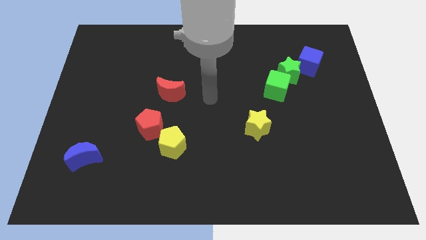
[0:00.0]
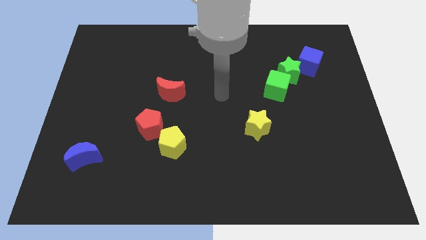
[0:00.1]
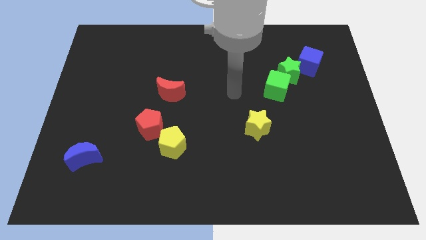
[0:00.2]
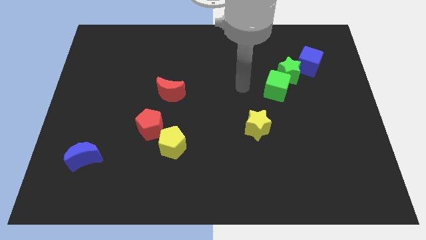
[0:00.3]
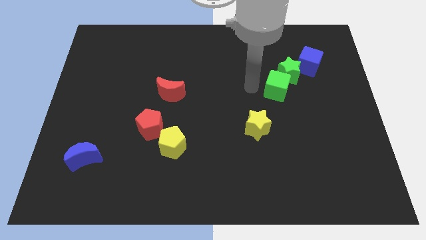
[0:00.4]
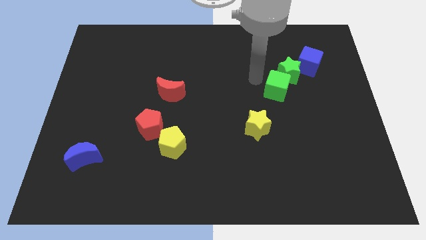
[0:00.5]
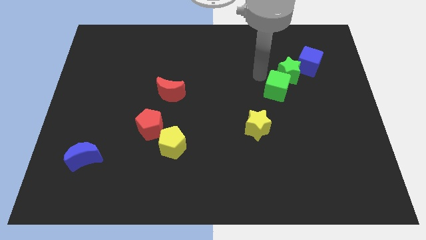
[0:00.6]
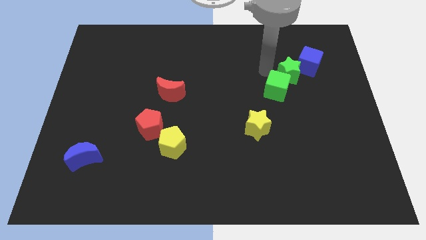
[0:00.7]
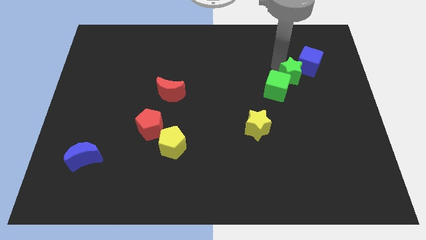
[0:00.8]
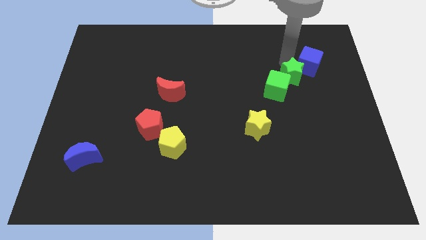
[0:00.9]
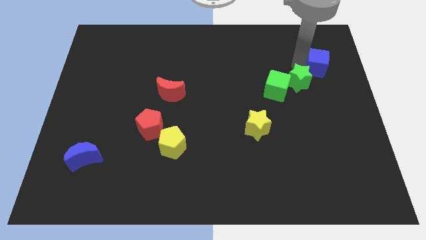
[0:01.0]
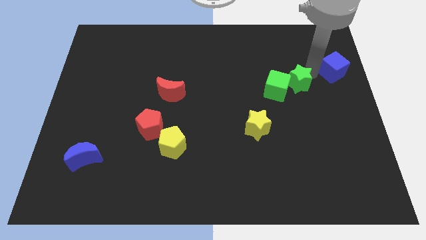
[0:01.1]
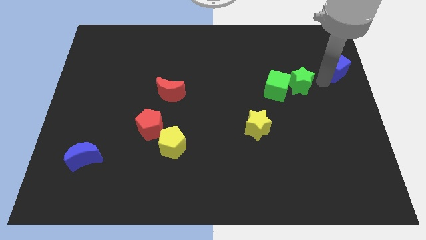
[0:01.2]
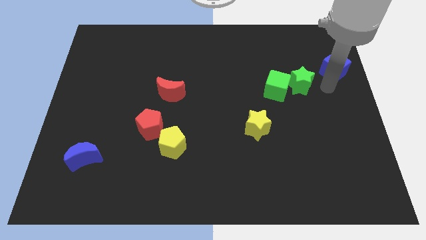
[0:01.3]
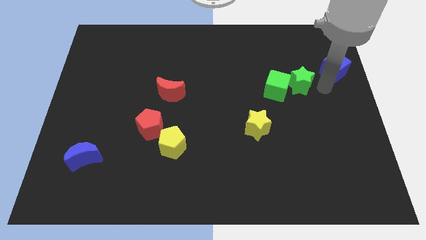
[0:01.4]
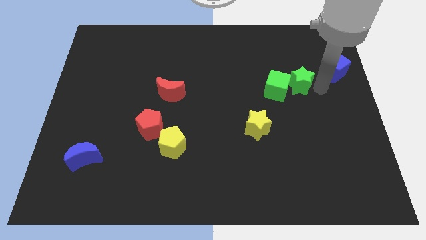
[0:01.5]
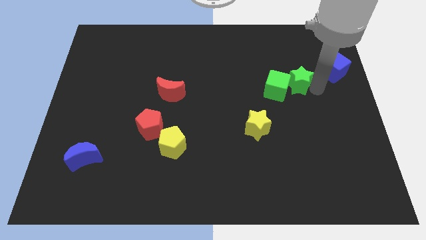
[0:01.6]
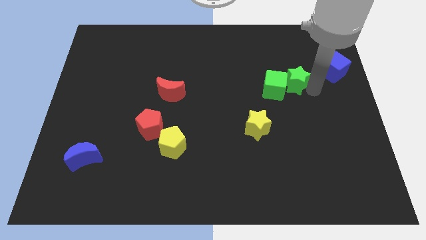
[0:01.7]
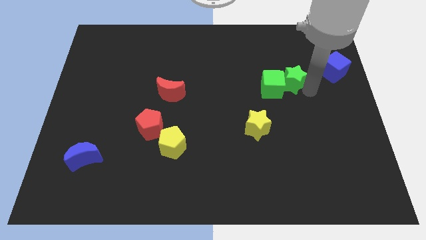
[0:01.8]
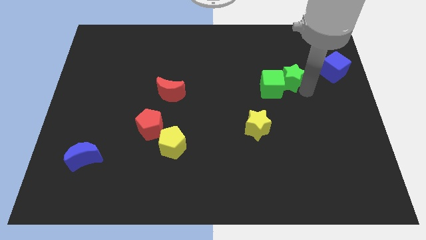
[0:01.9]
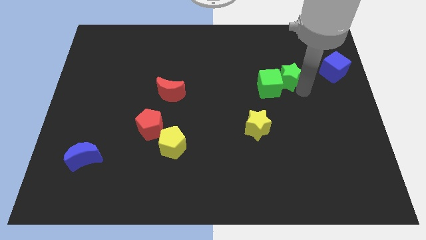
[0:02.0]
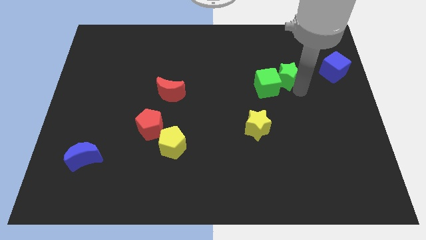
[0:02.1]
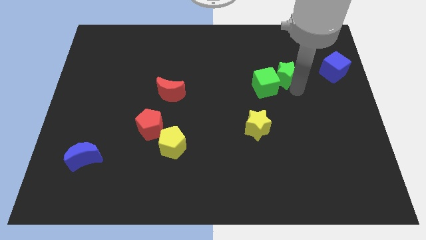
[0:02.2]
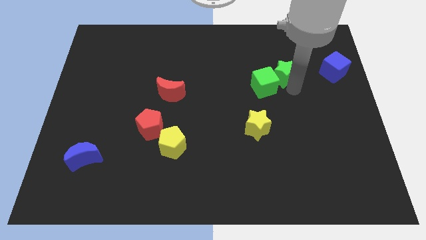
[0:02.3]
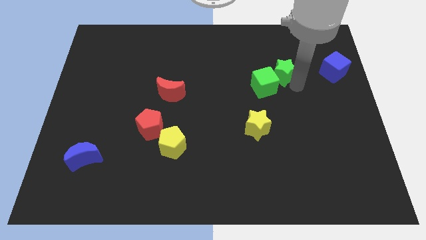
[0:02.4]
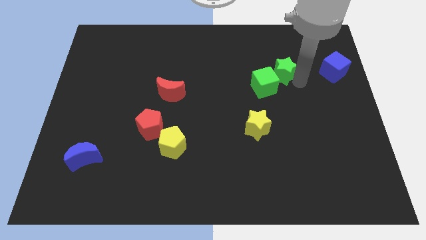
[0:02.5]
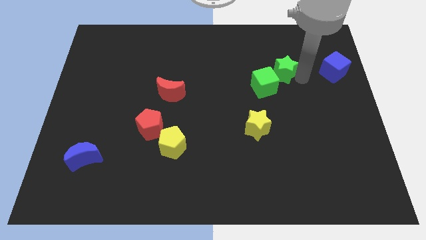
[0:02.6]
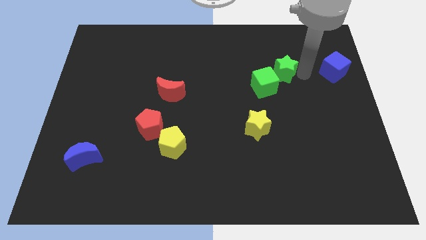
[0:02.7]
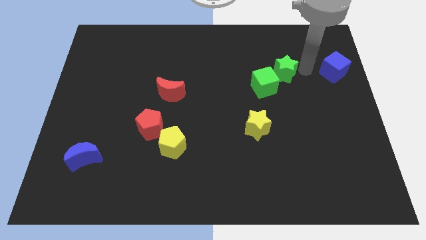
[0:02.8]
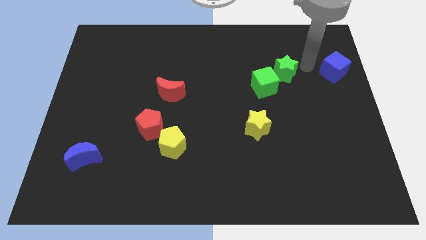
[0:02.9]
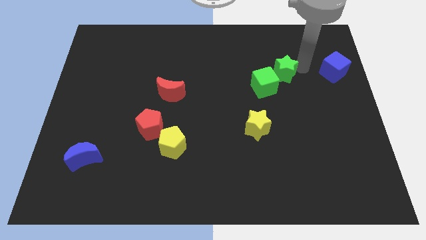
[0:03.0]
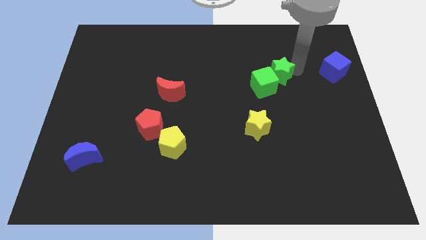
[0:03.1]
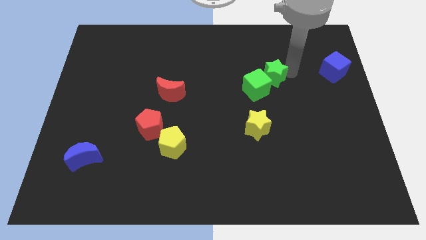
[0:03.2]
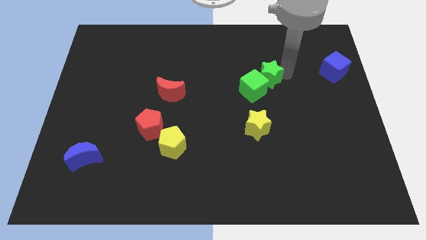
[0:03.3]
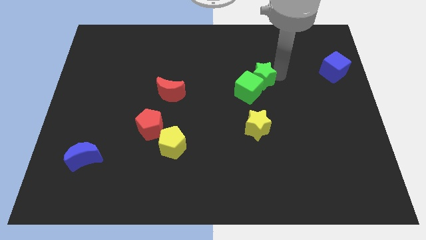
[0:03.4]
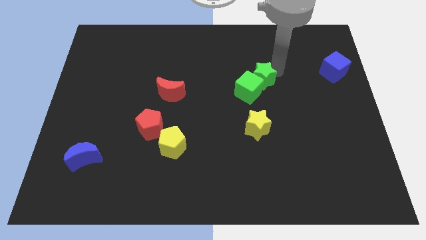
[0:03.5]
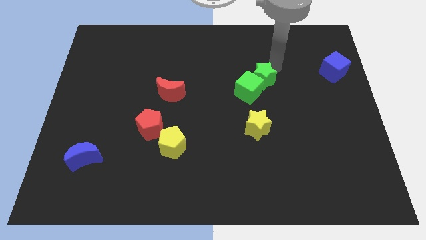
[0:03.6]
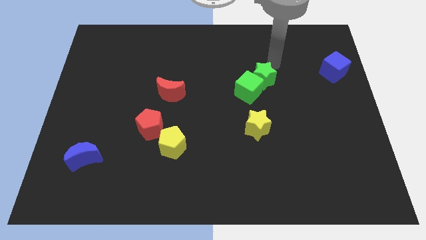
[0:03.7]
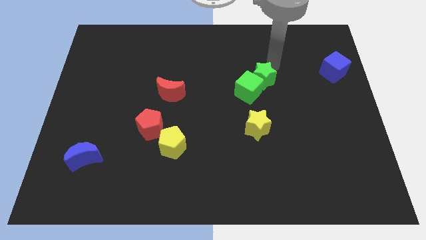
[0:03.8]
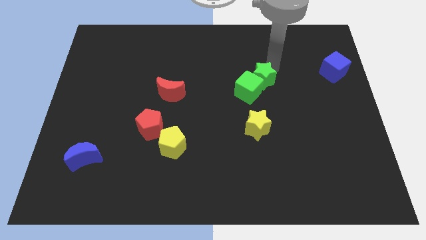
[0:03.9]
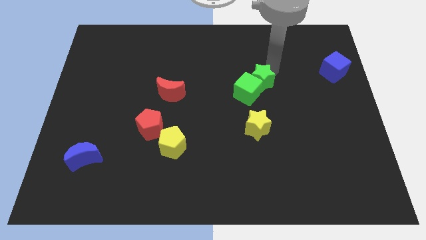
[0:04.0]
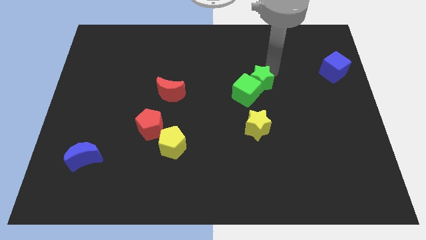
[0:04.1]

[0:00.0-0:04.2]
push the green star downwards and to the left a little

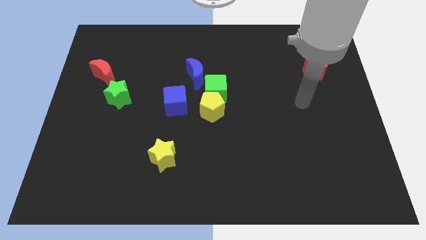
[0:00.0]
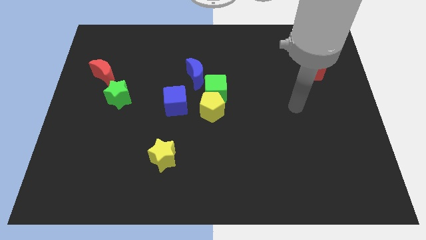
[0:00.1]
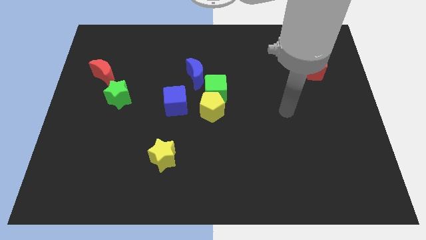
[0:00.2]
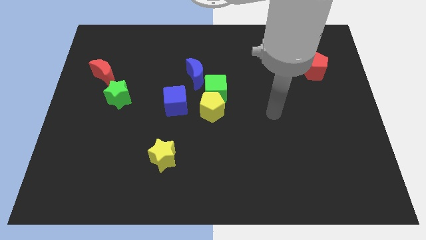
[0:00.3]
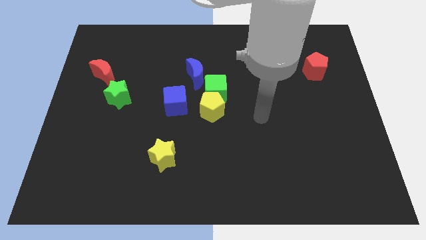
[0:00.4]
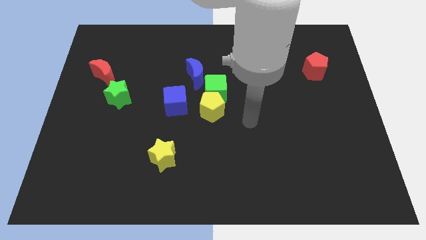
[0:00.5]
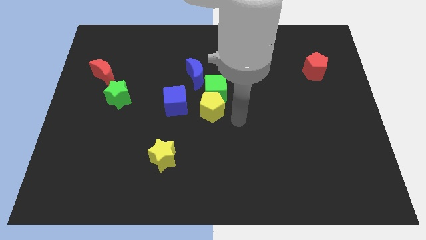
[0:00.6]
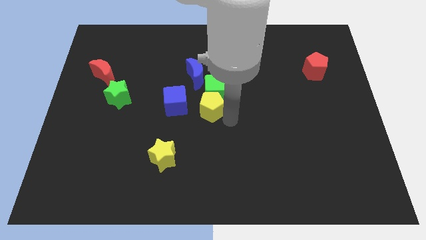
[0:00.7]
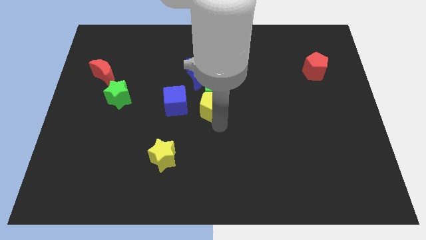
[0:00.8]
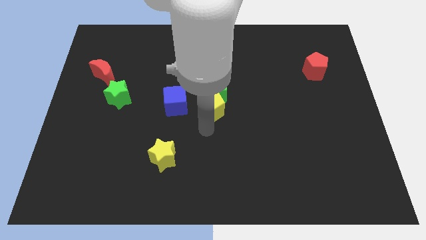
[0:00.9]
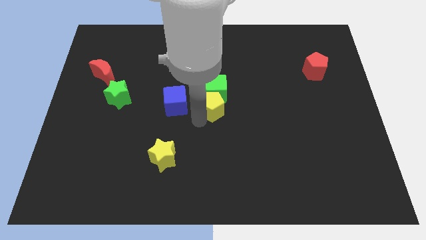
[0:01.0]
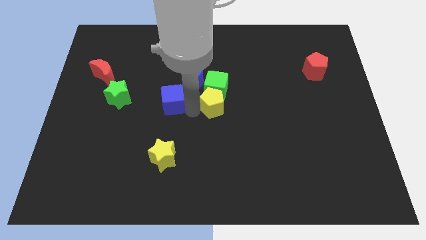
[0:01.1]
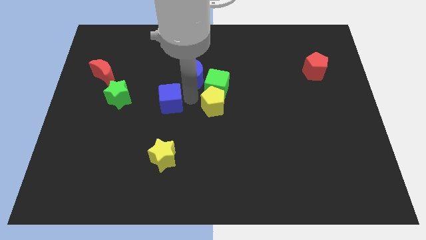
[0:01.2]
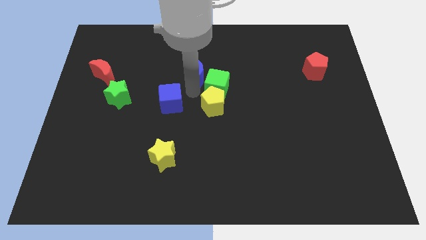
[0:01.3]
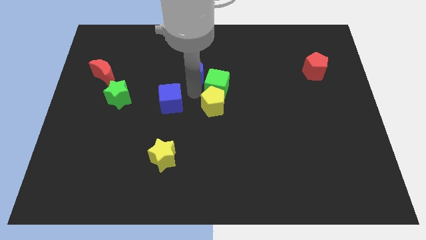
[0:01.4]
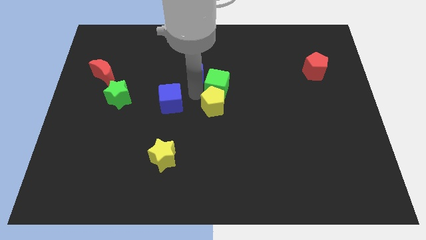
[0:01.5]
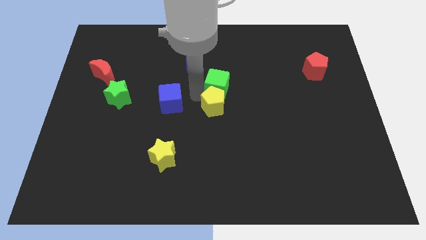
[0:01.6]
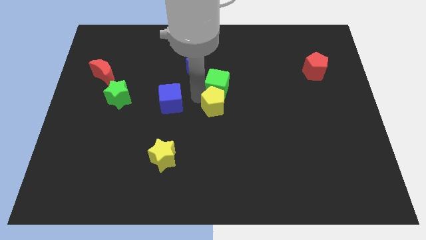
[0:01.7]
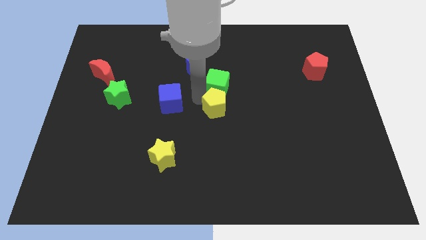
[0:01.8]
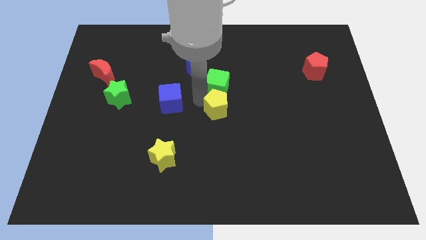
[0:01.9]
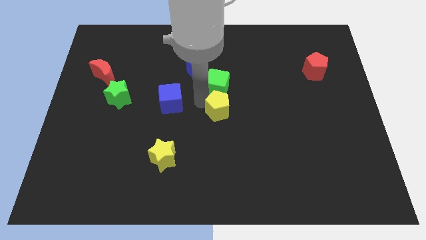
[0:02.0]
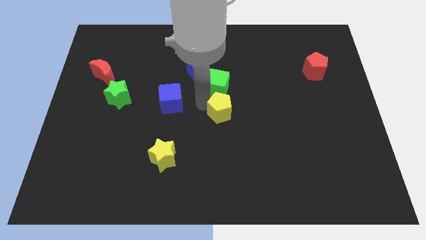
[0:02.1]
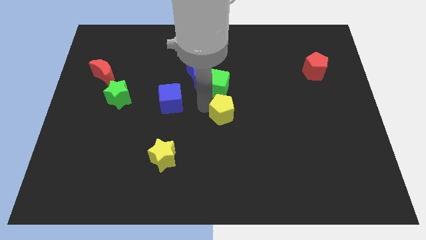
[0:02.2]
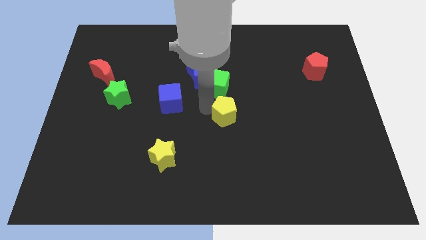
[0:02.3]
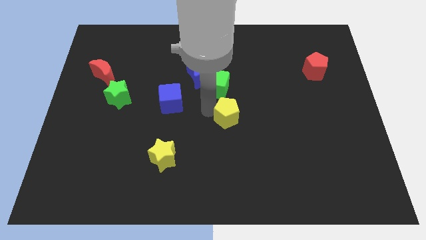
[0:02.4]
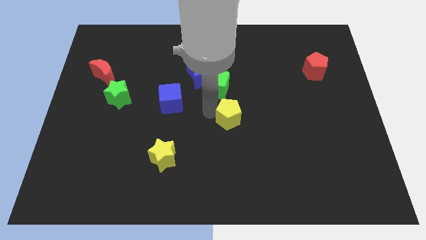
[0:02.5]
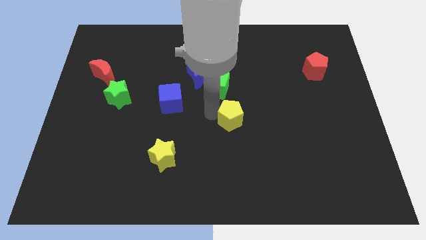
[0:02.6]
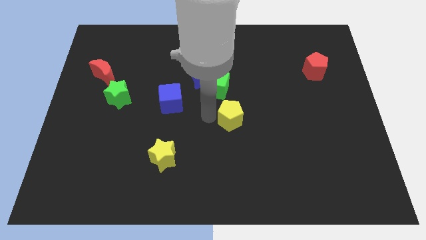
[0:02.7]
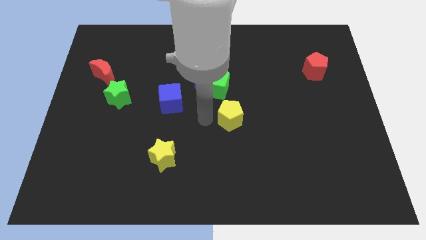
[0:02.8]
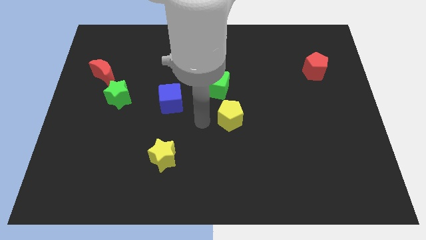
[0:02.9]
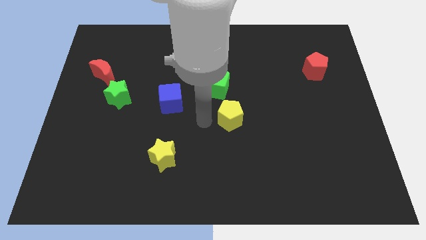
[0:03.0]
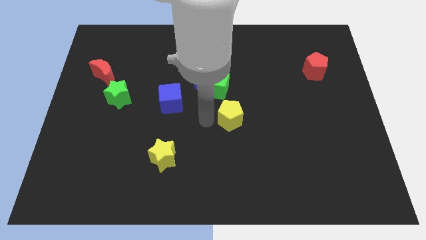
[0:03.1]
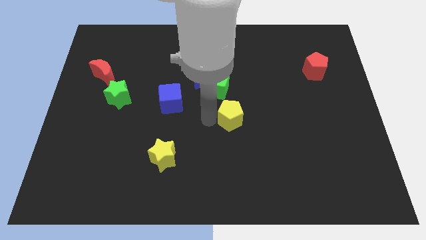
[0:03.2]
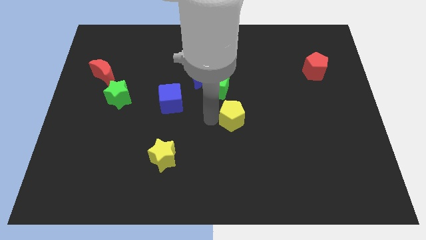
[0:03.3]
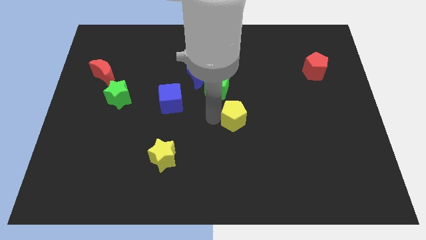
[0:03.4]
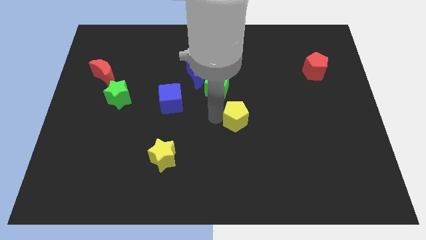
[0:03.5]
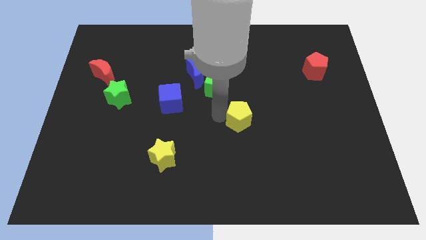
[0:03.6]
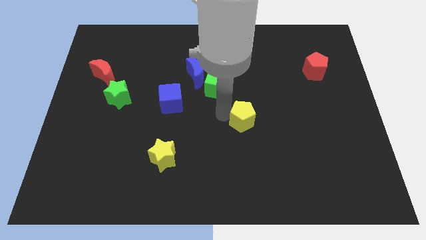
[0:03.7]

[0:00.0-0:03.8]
slightly slide the yellow pentagon right
